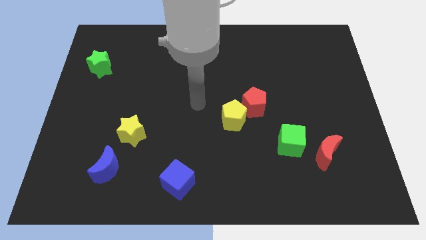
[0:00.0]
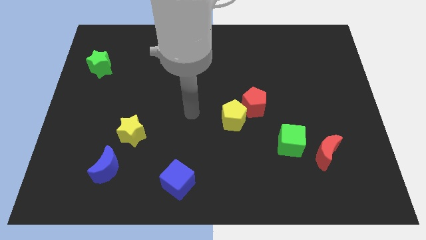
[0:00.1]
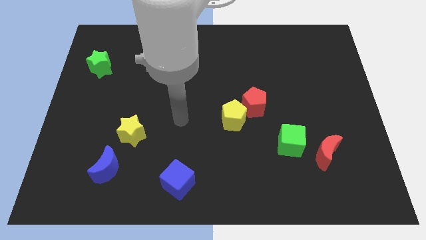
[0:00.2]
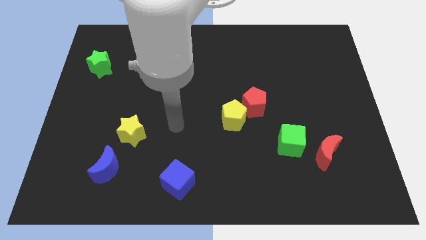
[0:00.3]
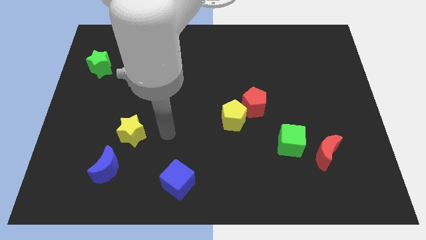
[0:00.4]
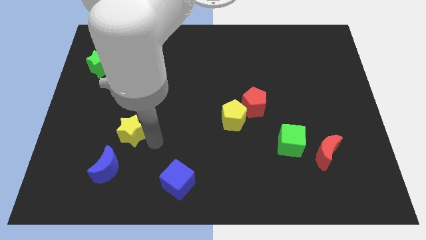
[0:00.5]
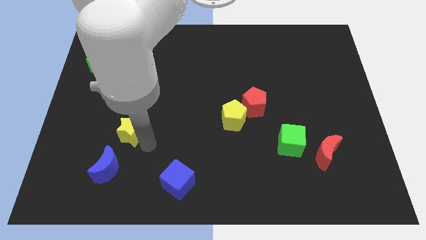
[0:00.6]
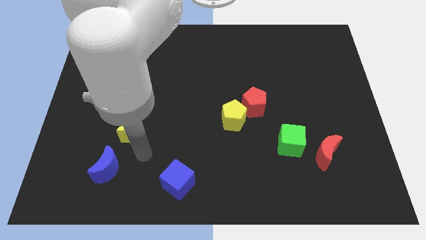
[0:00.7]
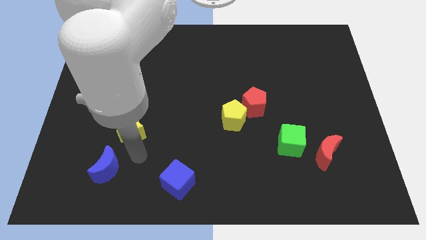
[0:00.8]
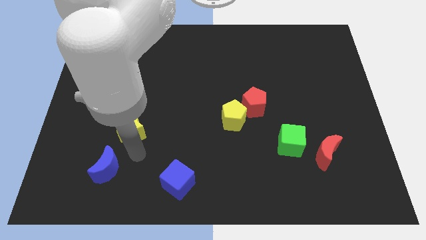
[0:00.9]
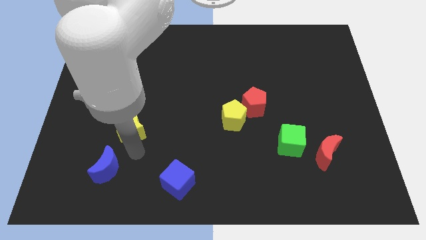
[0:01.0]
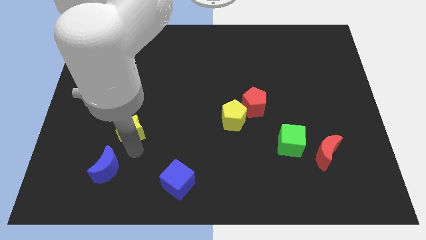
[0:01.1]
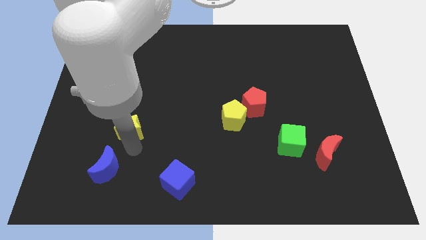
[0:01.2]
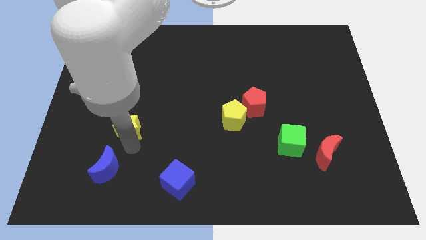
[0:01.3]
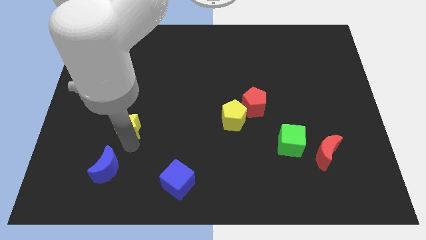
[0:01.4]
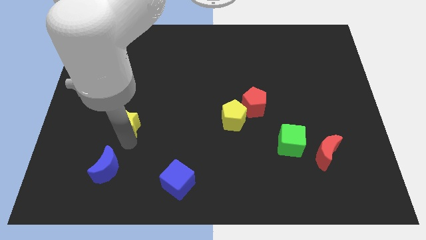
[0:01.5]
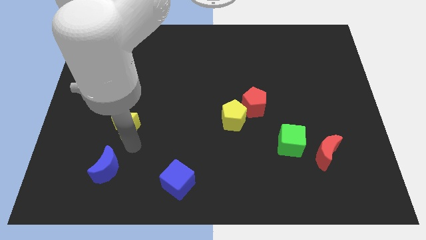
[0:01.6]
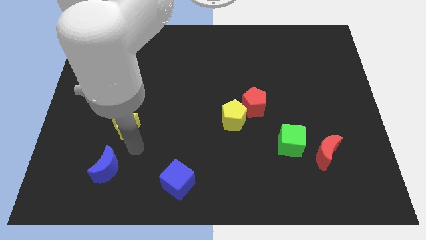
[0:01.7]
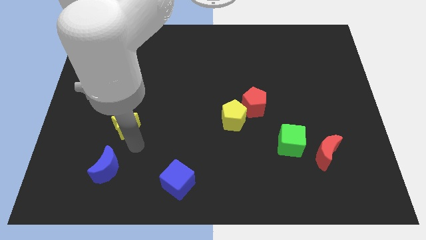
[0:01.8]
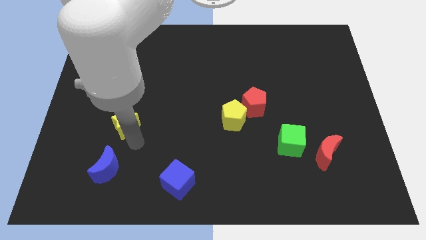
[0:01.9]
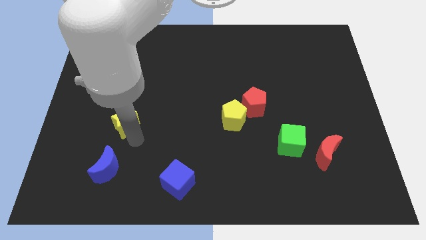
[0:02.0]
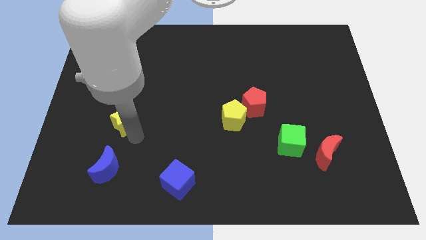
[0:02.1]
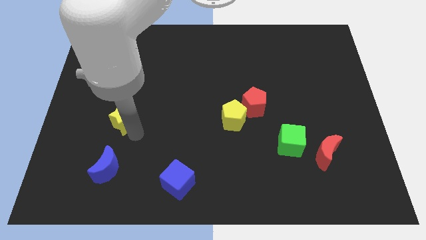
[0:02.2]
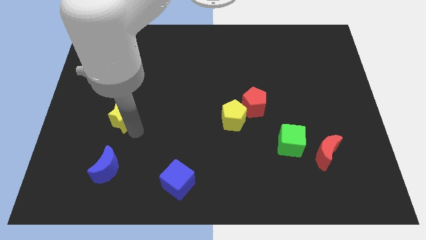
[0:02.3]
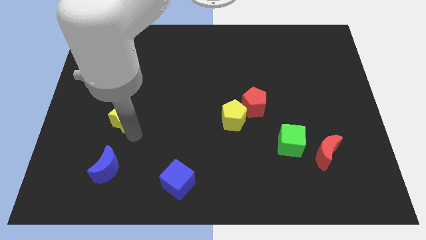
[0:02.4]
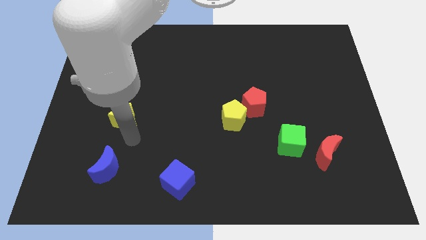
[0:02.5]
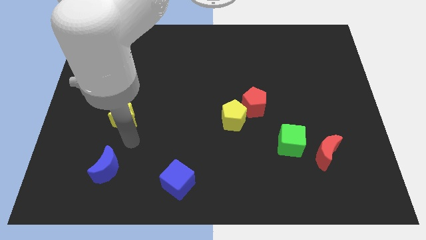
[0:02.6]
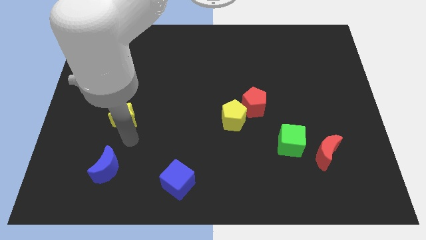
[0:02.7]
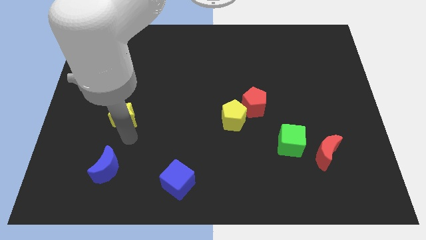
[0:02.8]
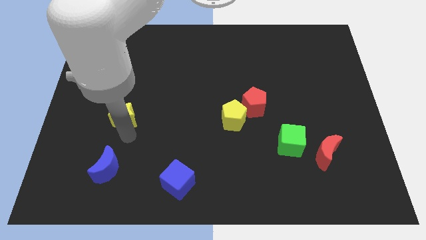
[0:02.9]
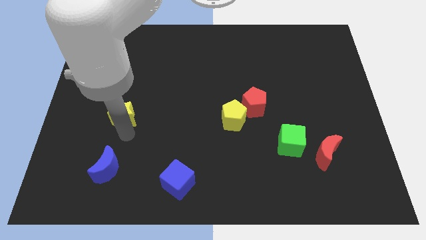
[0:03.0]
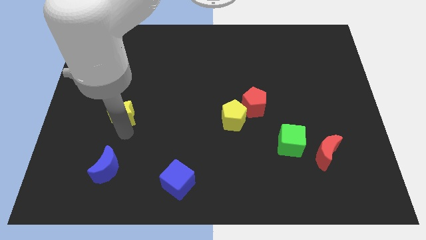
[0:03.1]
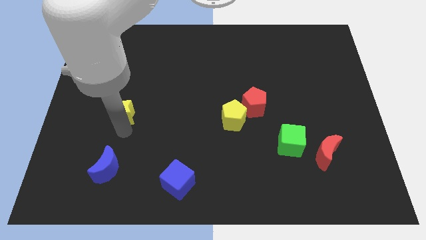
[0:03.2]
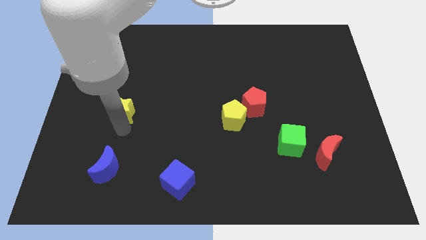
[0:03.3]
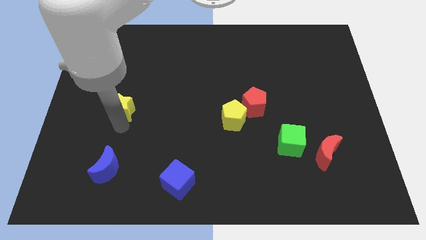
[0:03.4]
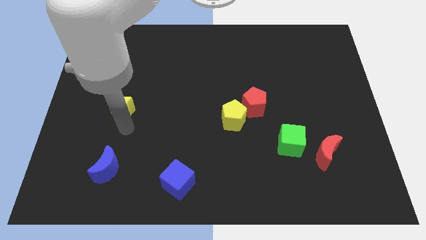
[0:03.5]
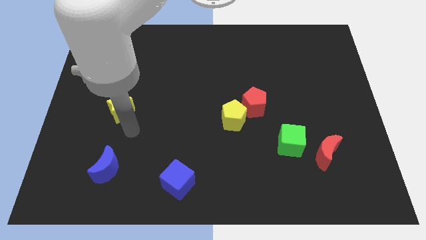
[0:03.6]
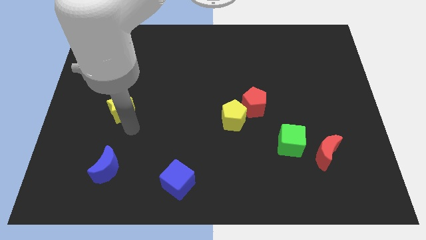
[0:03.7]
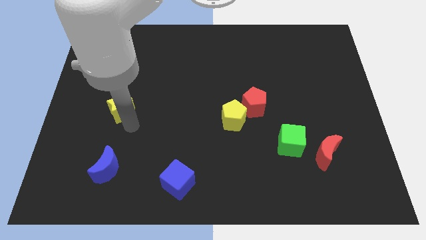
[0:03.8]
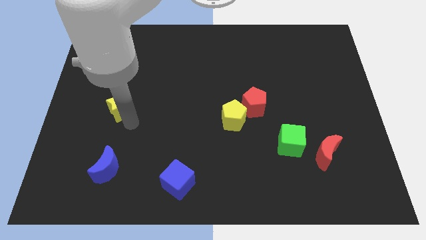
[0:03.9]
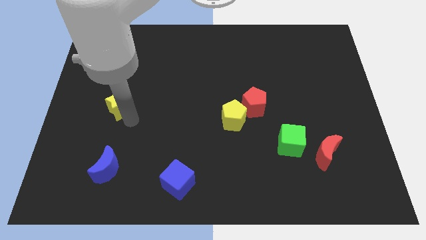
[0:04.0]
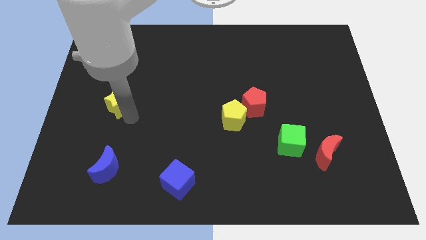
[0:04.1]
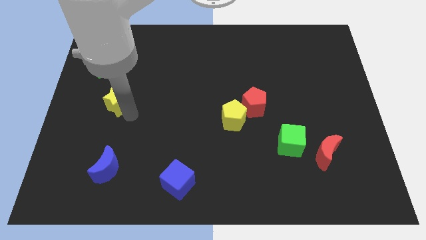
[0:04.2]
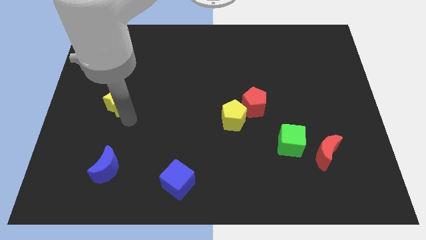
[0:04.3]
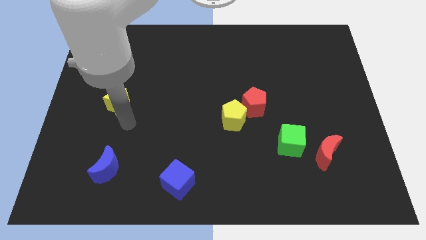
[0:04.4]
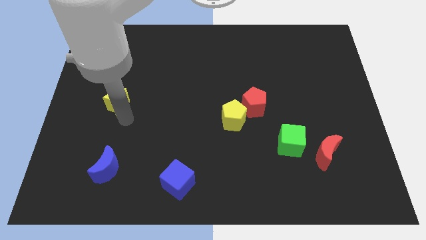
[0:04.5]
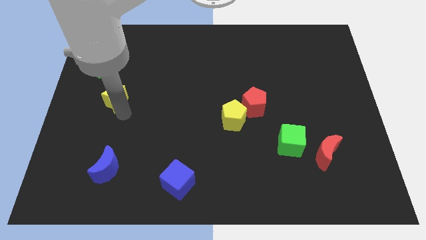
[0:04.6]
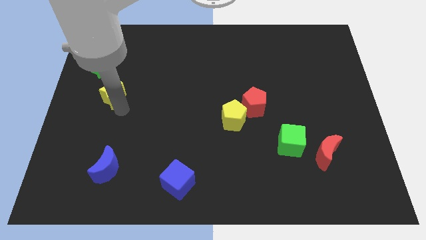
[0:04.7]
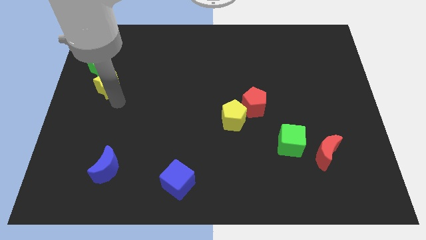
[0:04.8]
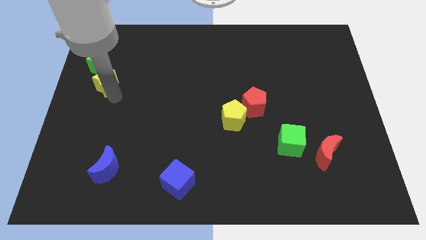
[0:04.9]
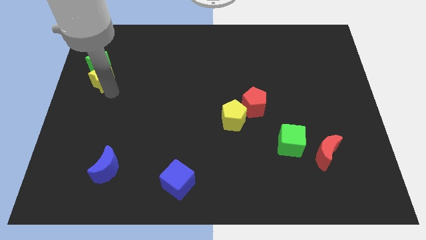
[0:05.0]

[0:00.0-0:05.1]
push the yellow star to the green star

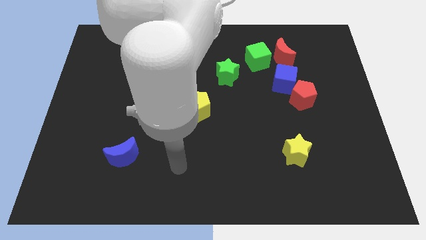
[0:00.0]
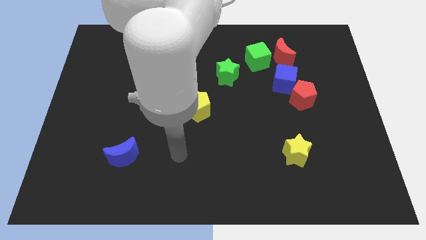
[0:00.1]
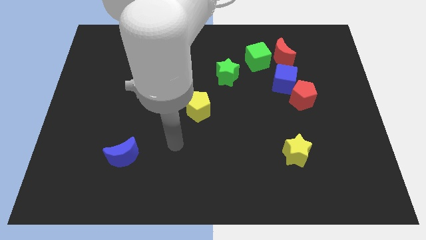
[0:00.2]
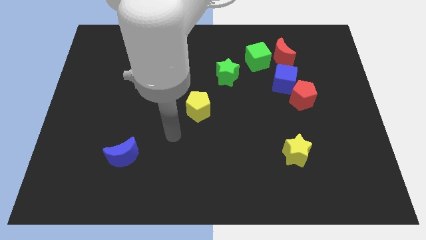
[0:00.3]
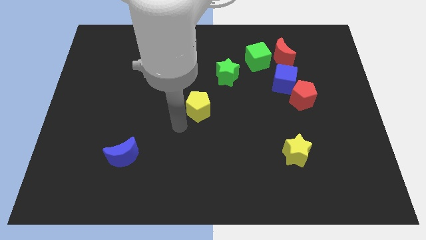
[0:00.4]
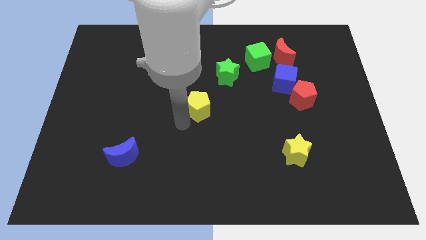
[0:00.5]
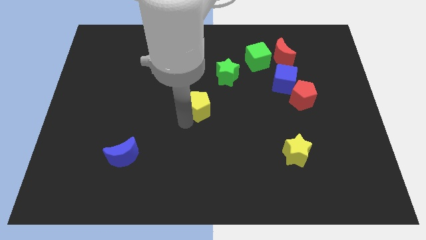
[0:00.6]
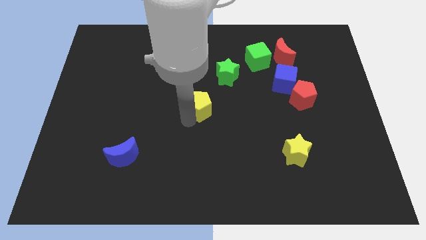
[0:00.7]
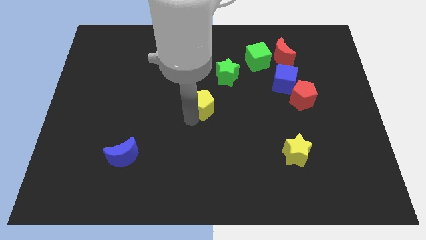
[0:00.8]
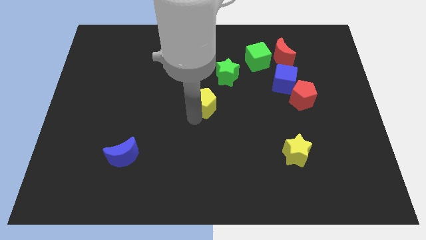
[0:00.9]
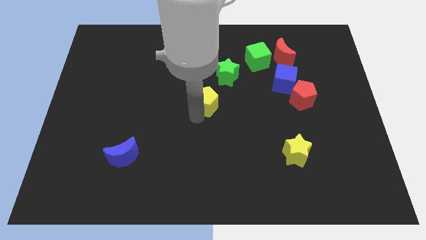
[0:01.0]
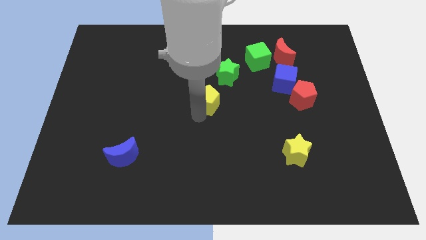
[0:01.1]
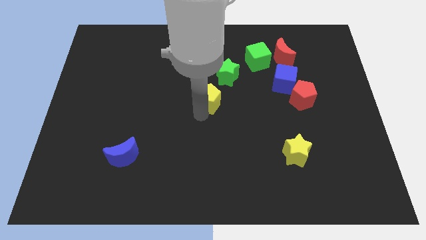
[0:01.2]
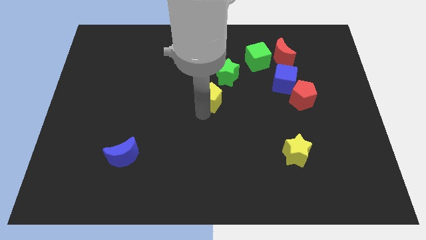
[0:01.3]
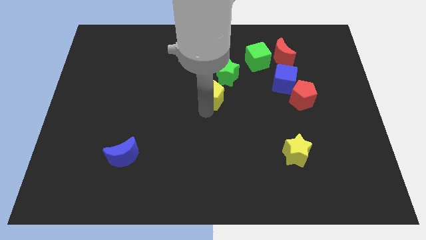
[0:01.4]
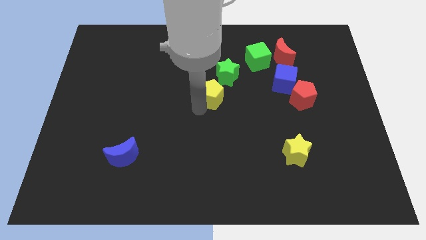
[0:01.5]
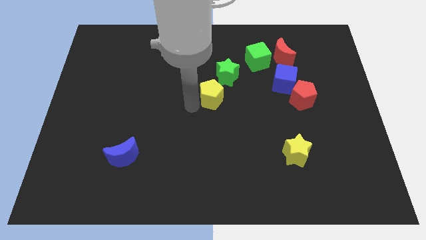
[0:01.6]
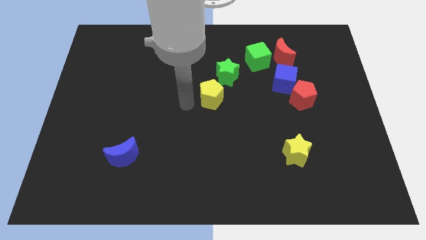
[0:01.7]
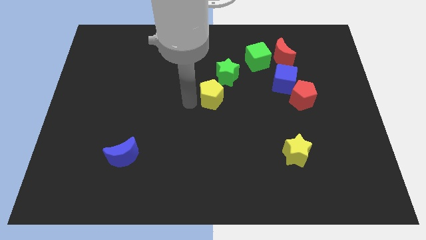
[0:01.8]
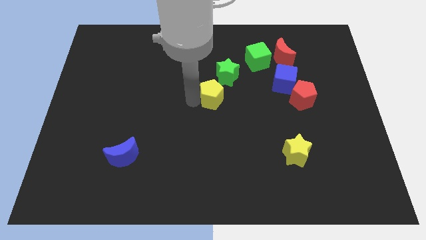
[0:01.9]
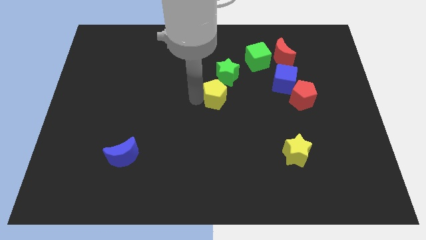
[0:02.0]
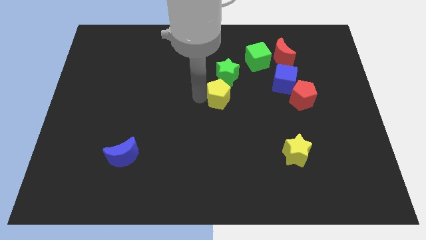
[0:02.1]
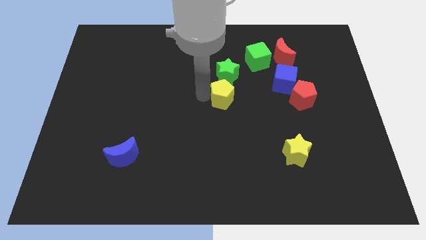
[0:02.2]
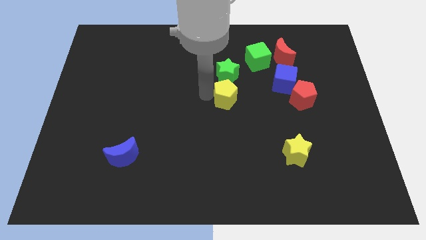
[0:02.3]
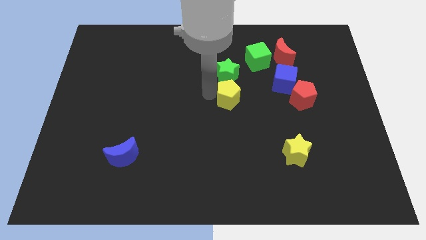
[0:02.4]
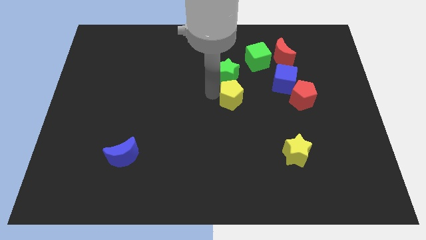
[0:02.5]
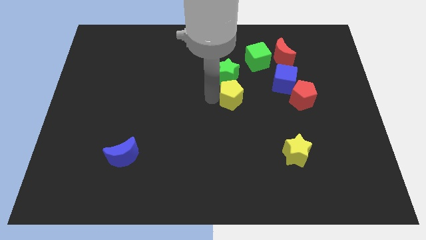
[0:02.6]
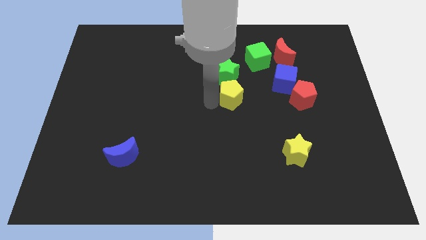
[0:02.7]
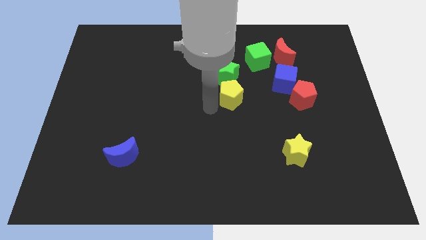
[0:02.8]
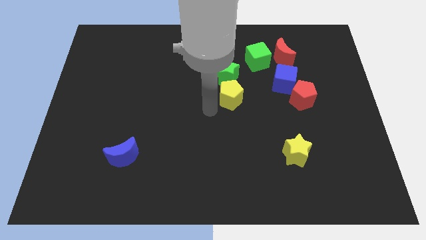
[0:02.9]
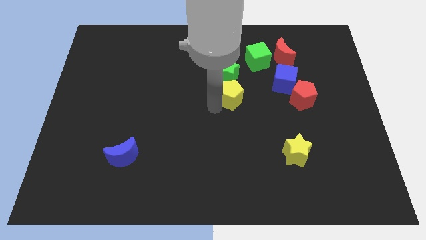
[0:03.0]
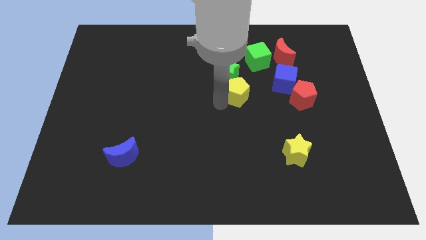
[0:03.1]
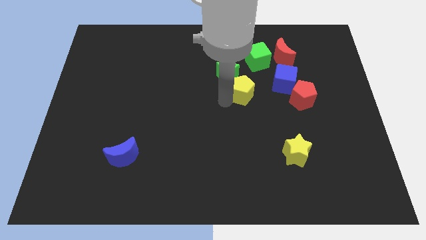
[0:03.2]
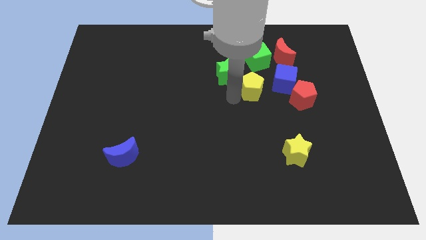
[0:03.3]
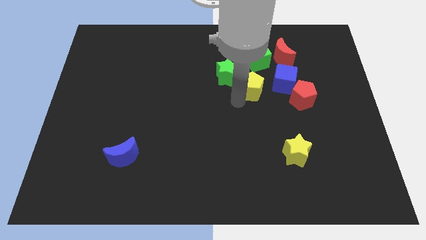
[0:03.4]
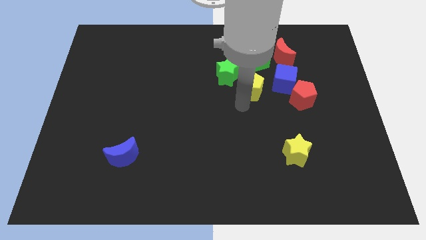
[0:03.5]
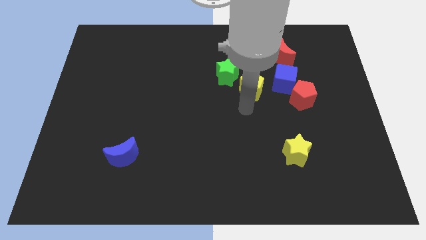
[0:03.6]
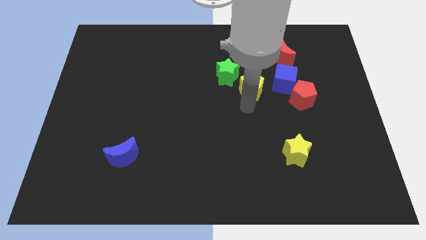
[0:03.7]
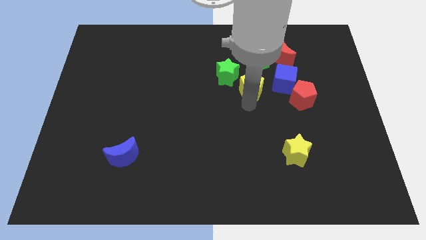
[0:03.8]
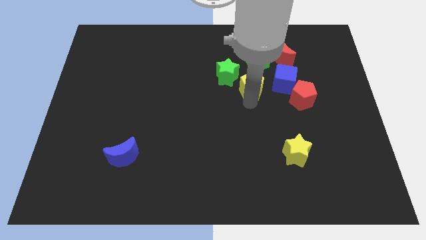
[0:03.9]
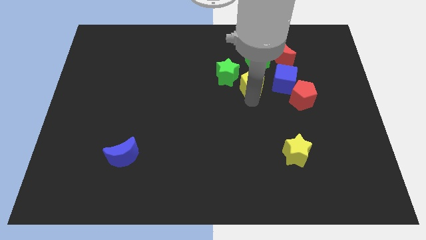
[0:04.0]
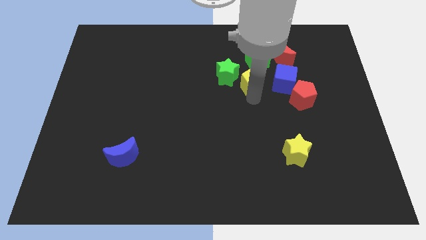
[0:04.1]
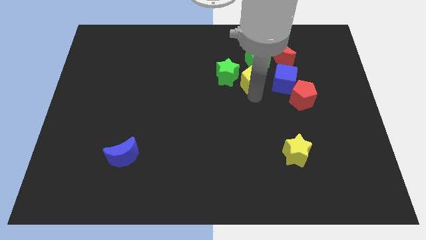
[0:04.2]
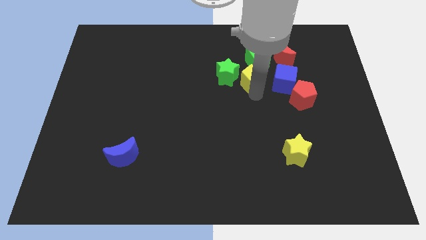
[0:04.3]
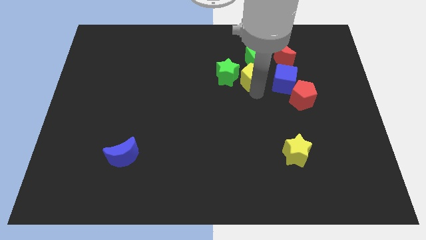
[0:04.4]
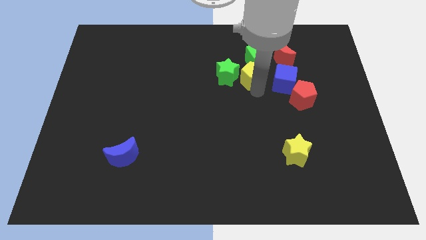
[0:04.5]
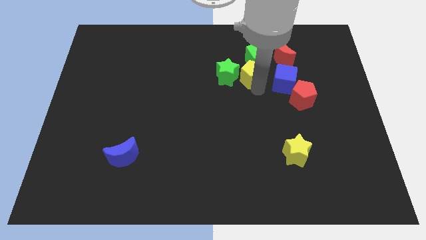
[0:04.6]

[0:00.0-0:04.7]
put the yellow pentagon close to the green cube
